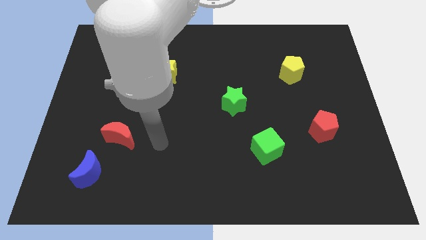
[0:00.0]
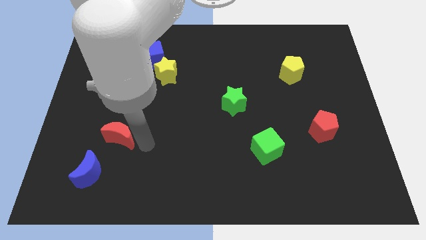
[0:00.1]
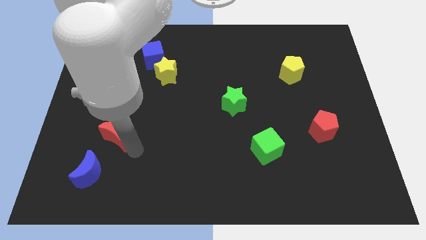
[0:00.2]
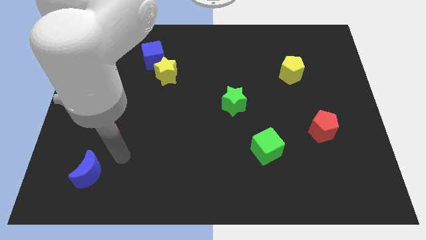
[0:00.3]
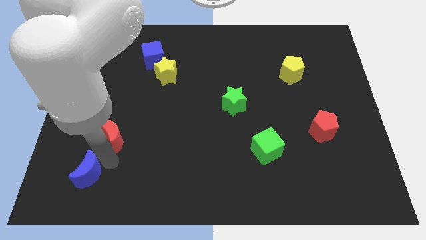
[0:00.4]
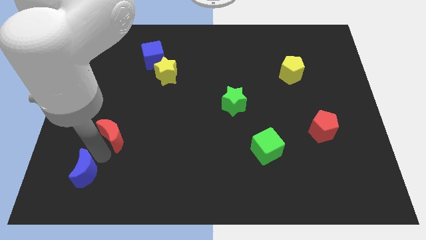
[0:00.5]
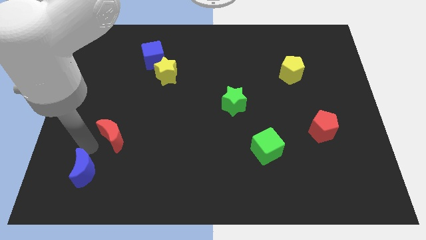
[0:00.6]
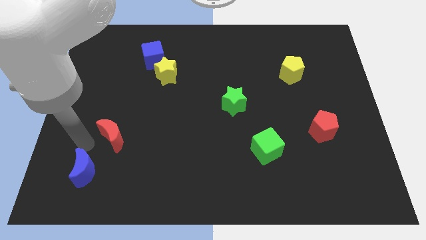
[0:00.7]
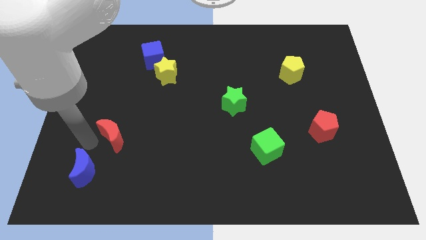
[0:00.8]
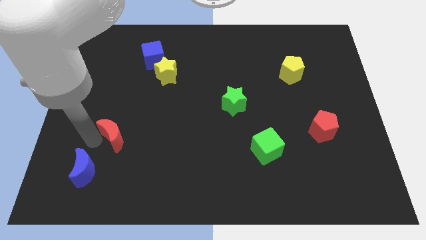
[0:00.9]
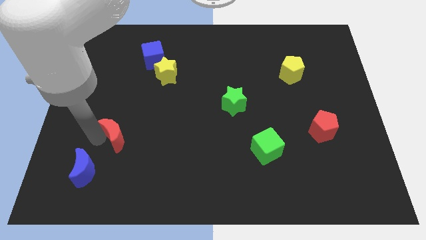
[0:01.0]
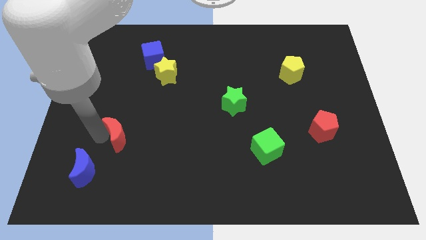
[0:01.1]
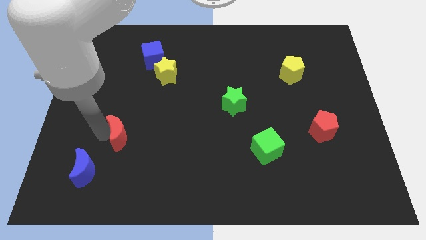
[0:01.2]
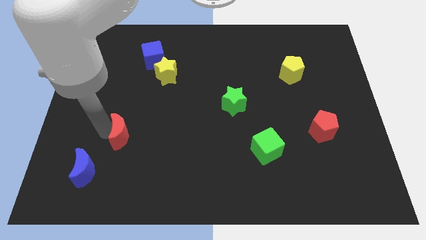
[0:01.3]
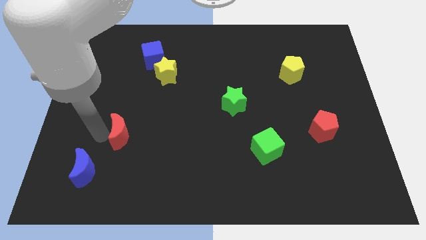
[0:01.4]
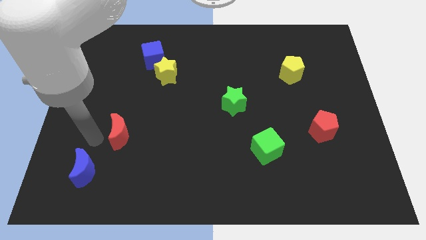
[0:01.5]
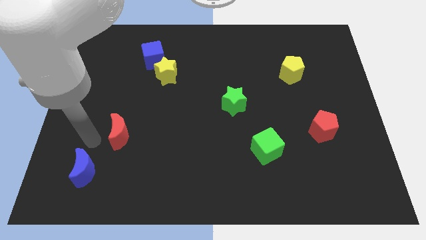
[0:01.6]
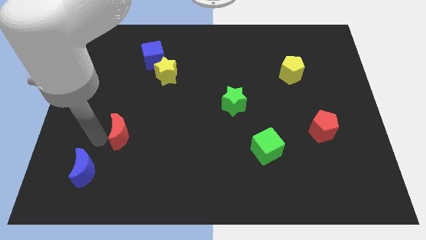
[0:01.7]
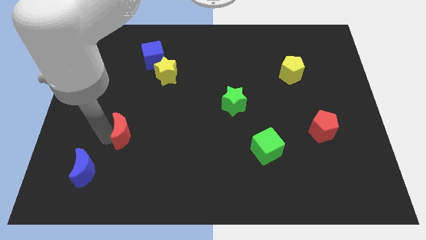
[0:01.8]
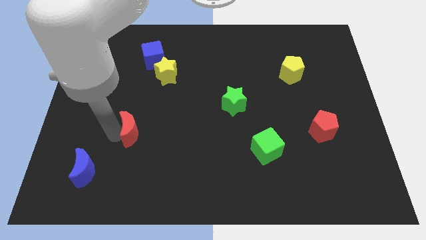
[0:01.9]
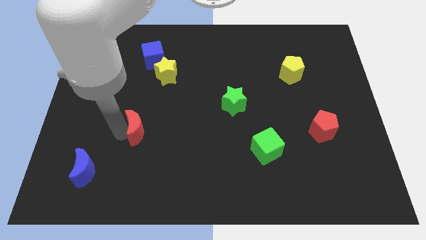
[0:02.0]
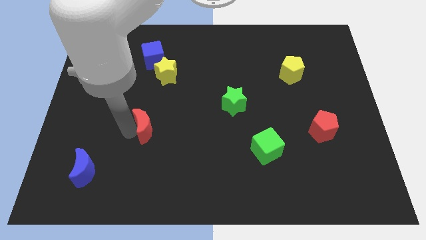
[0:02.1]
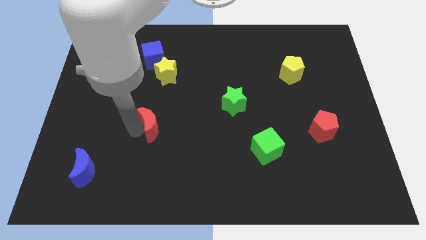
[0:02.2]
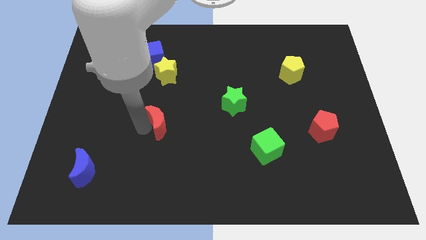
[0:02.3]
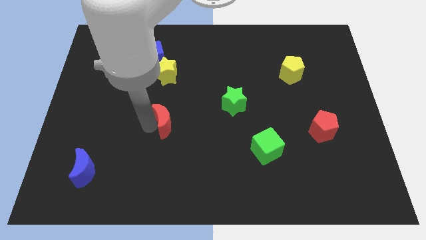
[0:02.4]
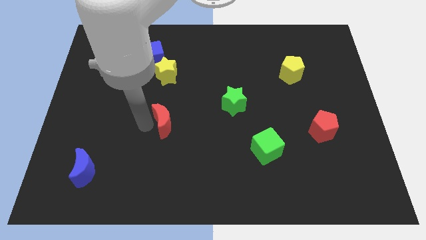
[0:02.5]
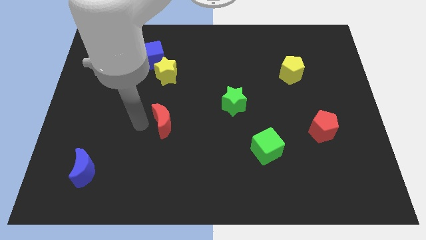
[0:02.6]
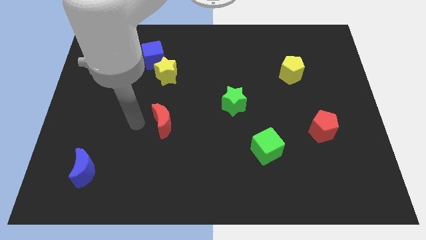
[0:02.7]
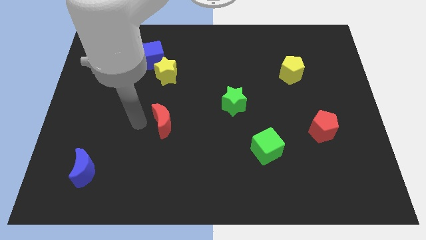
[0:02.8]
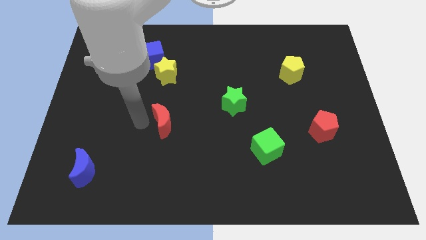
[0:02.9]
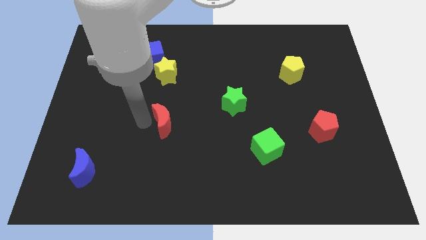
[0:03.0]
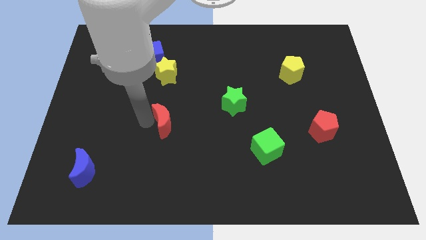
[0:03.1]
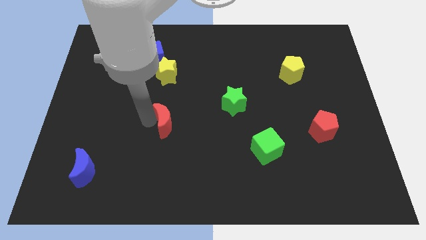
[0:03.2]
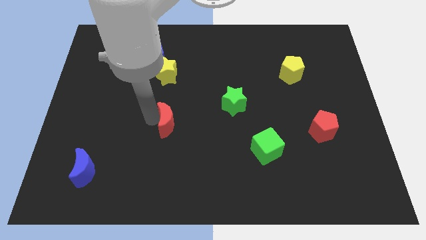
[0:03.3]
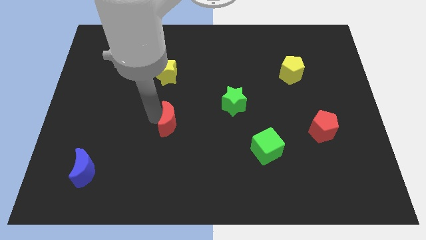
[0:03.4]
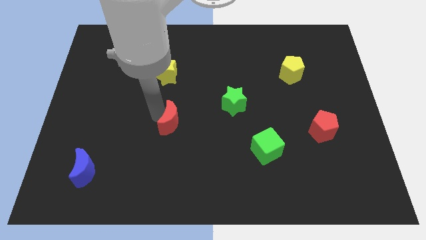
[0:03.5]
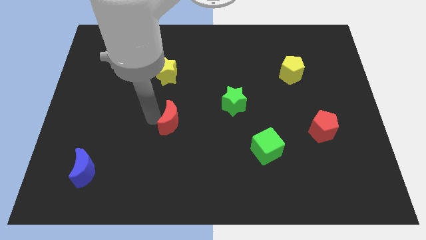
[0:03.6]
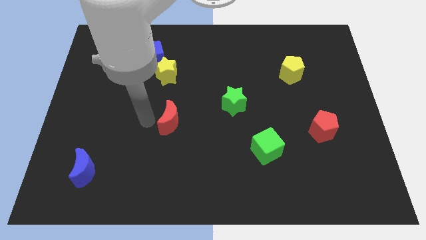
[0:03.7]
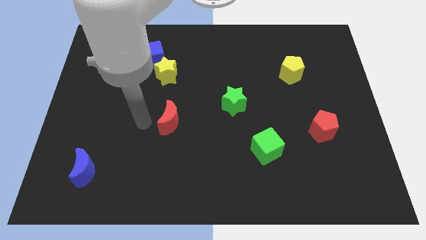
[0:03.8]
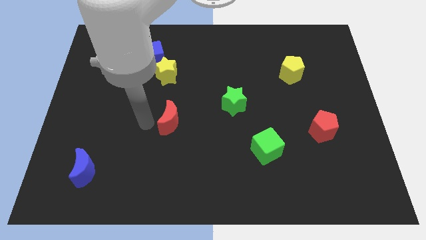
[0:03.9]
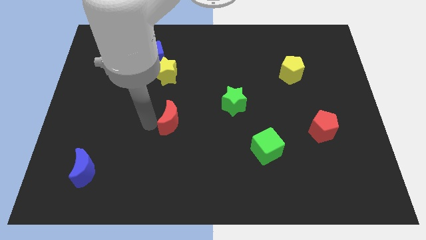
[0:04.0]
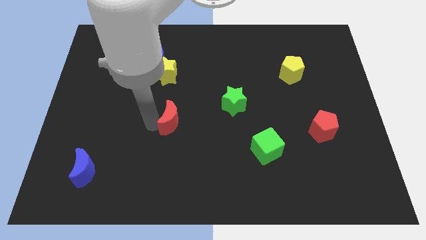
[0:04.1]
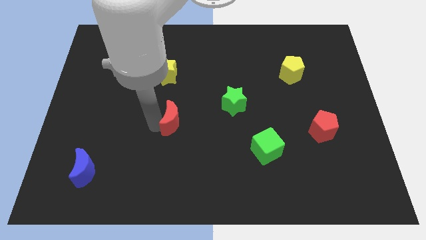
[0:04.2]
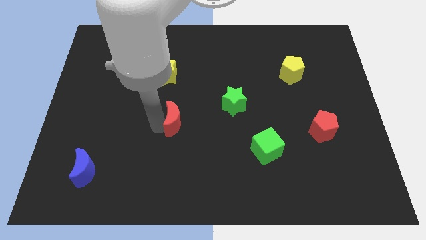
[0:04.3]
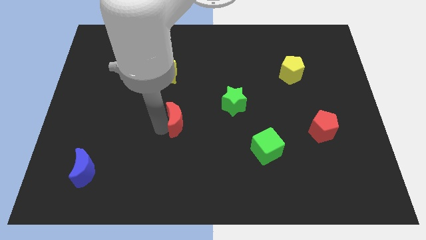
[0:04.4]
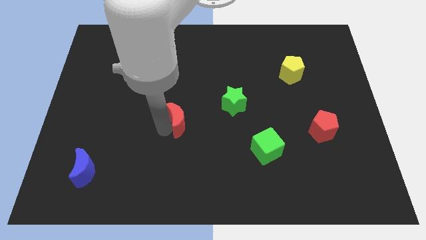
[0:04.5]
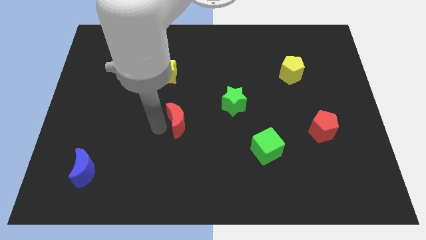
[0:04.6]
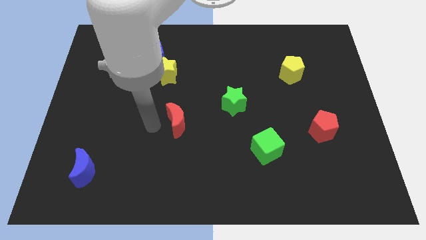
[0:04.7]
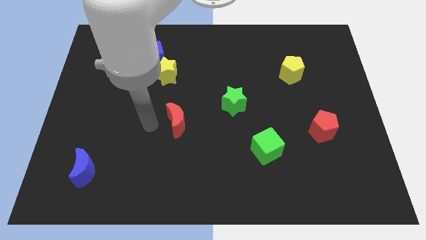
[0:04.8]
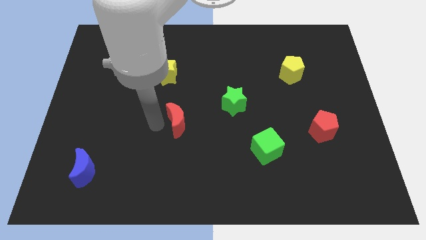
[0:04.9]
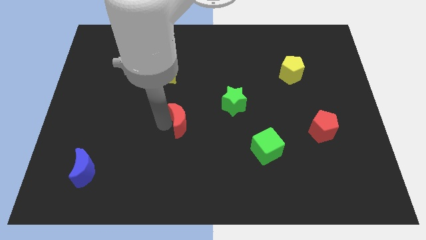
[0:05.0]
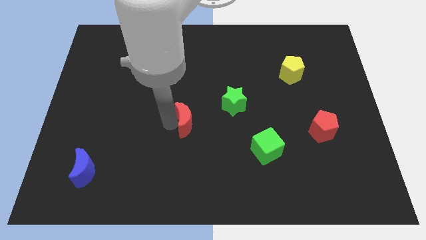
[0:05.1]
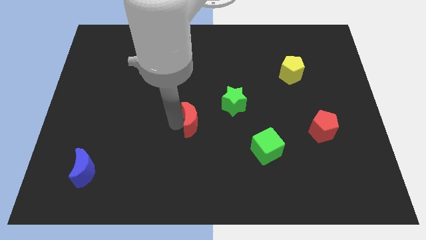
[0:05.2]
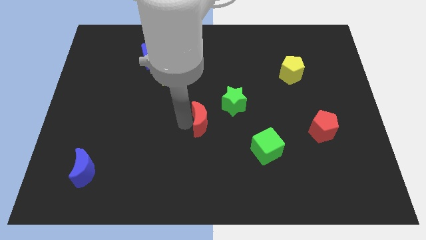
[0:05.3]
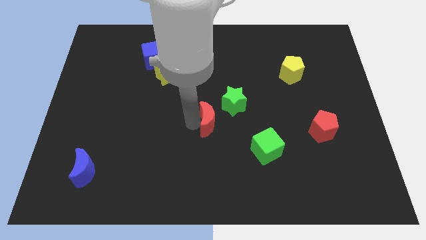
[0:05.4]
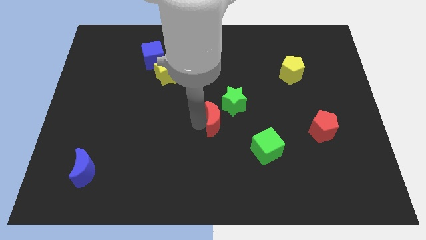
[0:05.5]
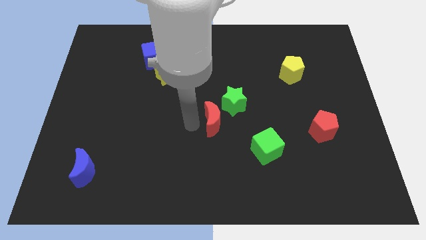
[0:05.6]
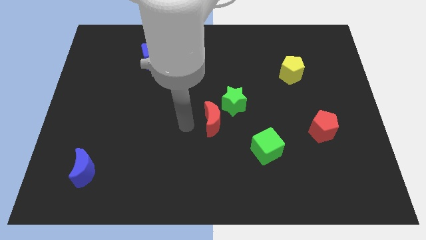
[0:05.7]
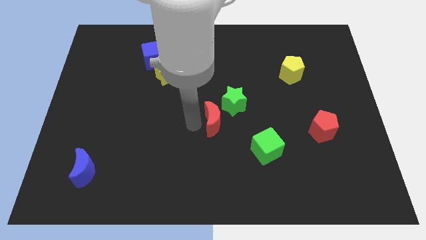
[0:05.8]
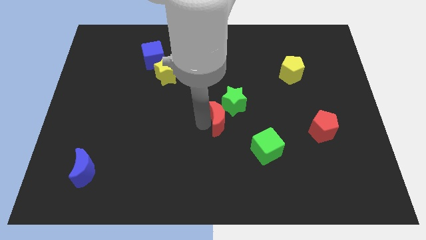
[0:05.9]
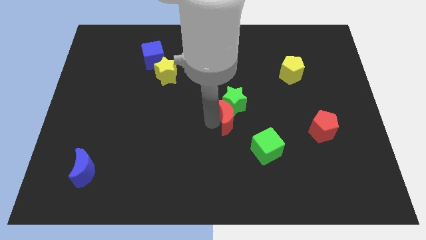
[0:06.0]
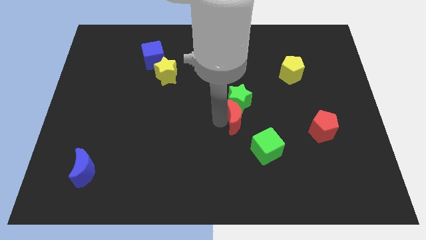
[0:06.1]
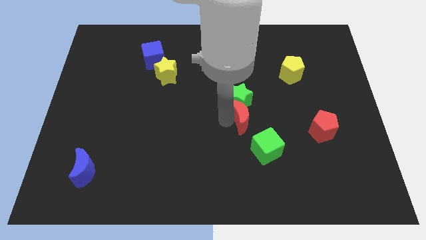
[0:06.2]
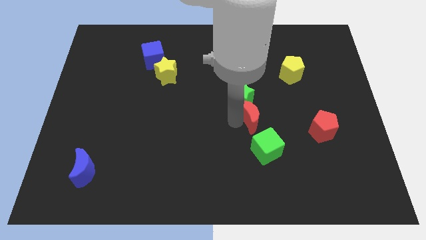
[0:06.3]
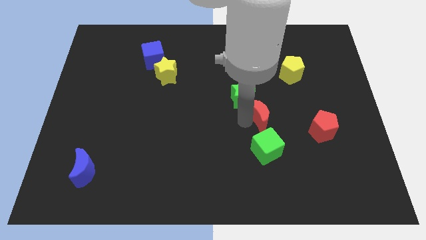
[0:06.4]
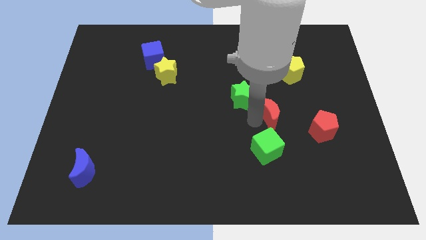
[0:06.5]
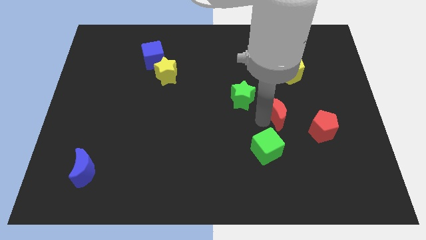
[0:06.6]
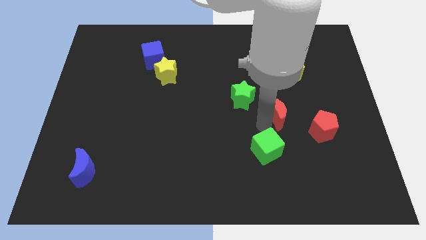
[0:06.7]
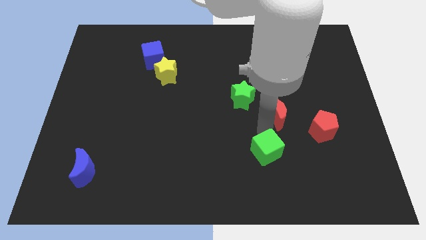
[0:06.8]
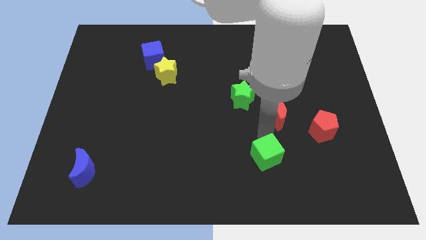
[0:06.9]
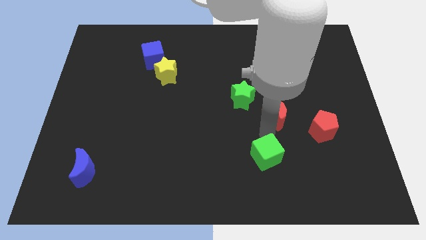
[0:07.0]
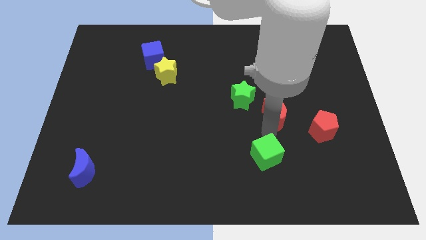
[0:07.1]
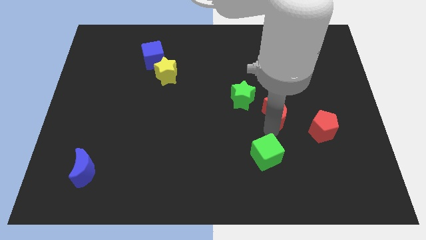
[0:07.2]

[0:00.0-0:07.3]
put the red moon just right of the green star
